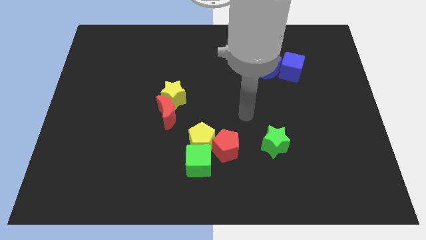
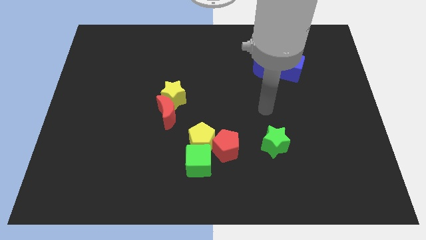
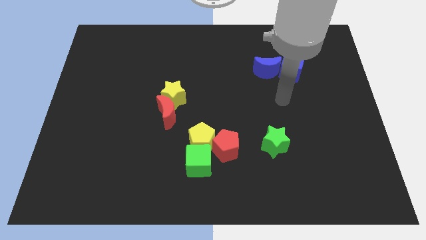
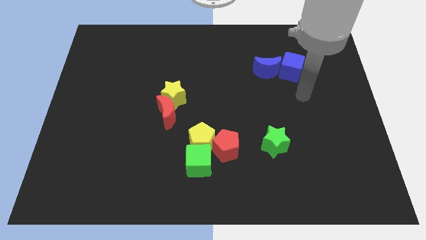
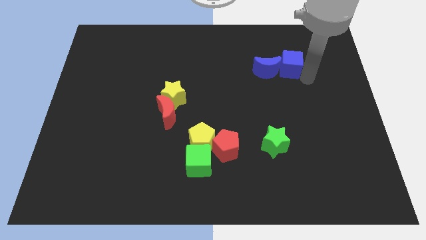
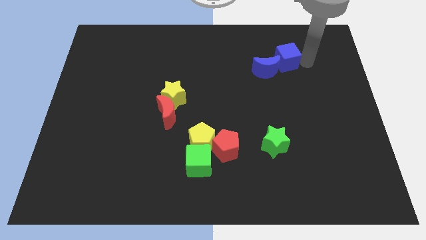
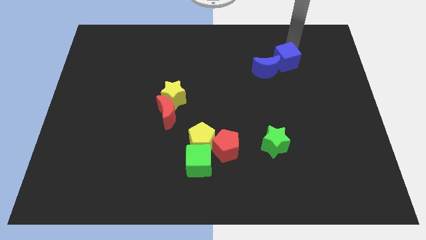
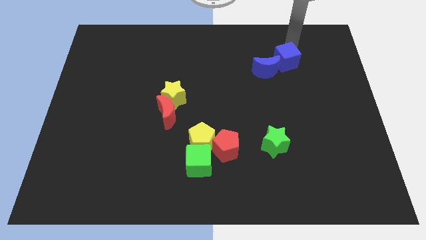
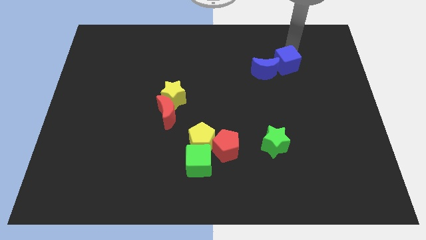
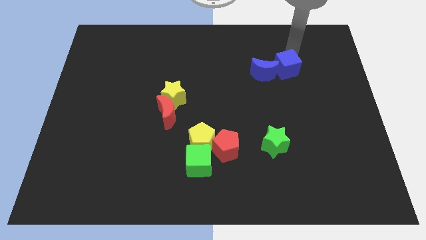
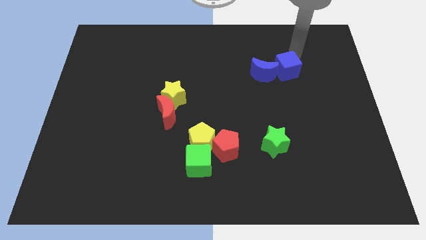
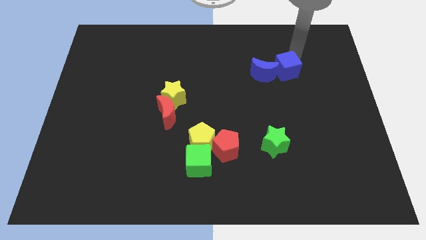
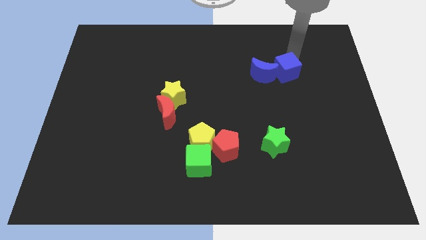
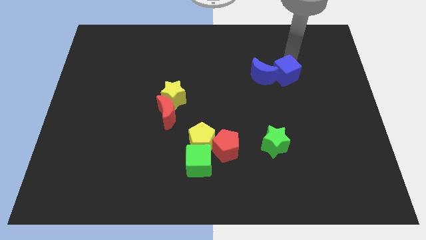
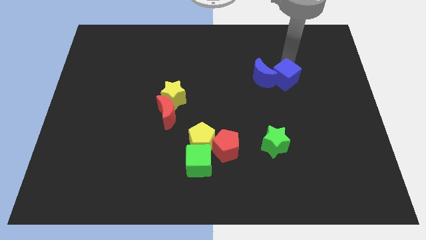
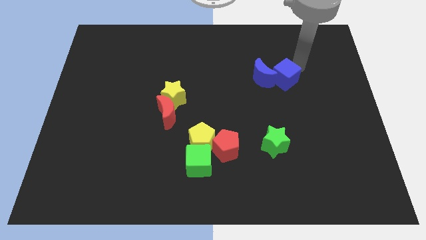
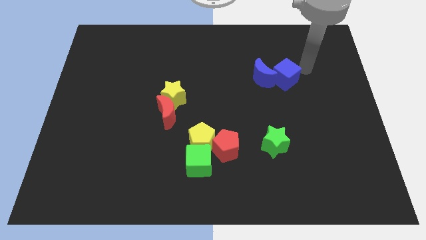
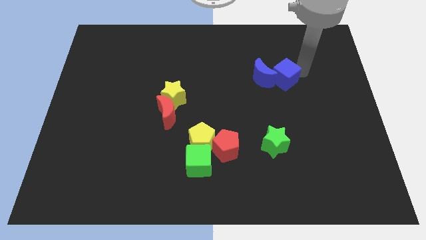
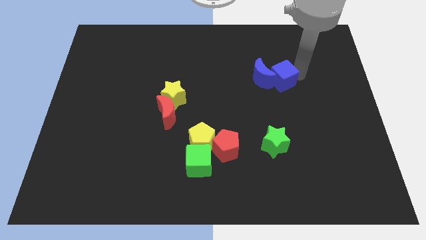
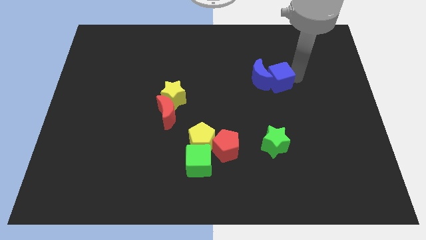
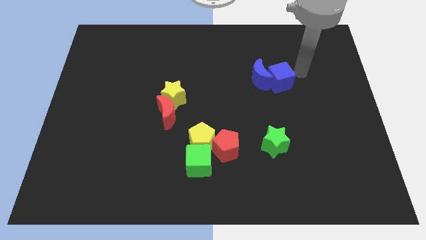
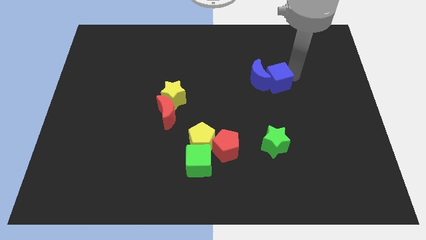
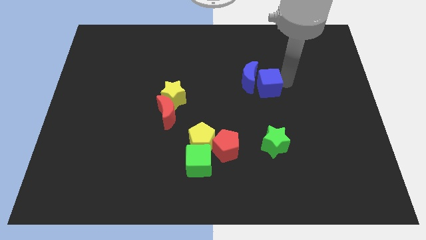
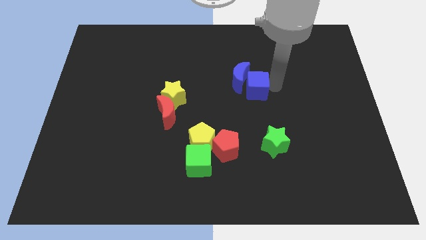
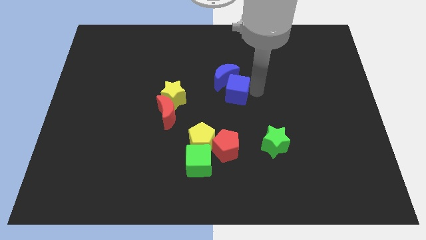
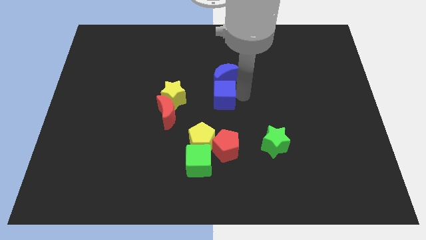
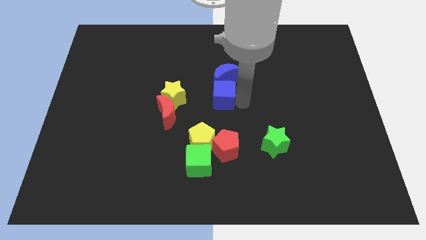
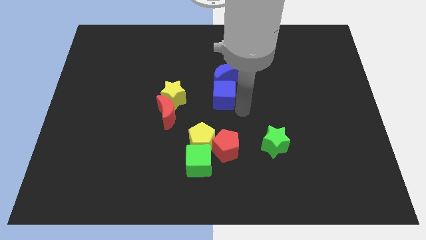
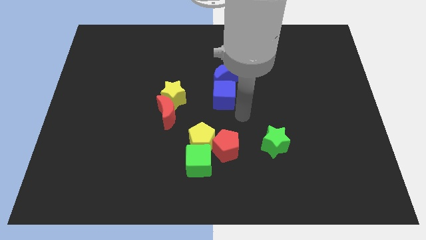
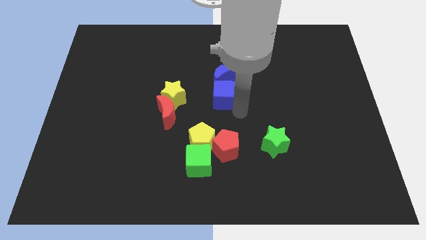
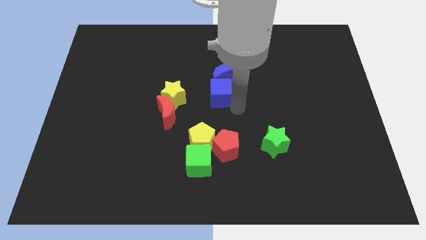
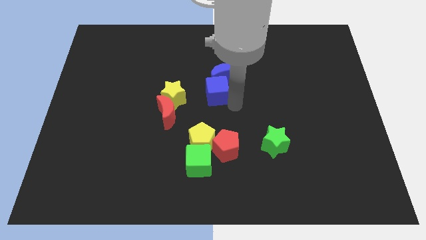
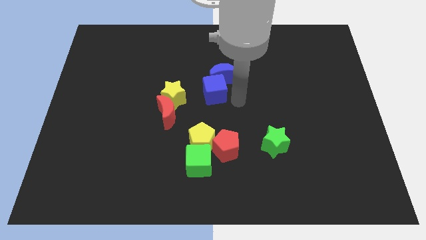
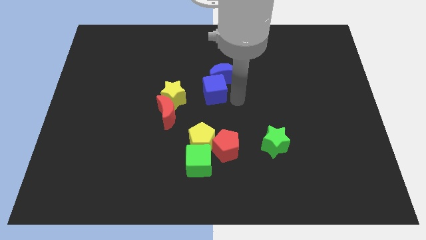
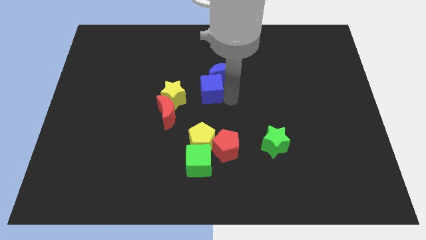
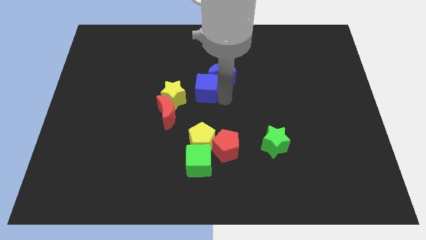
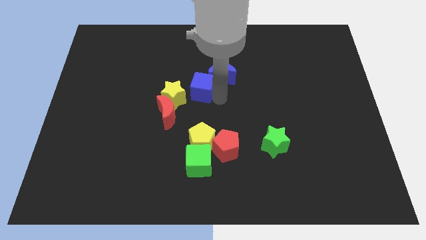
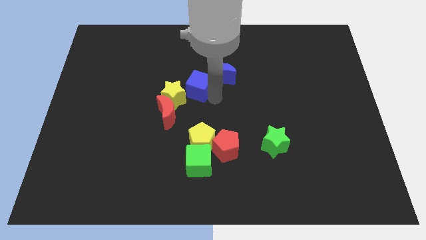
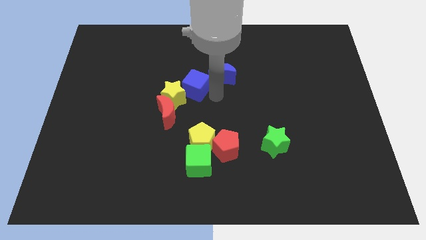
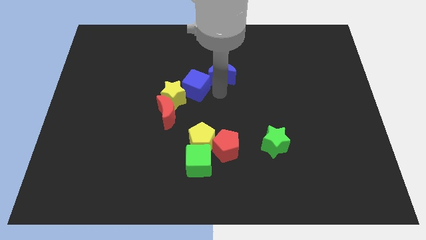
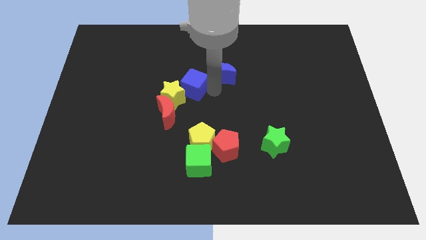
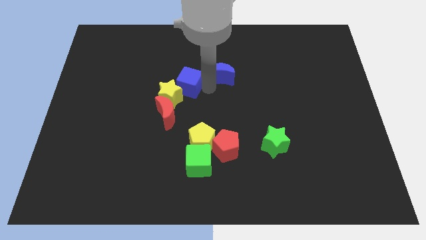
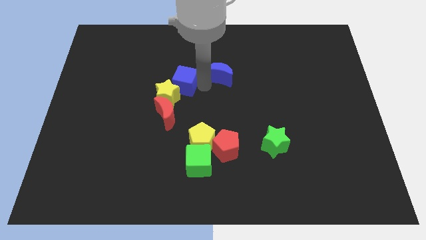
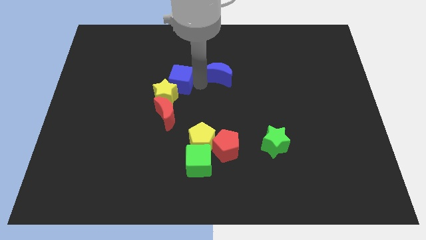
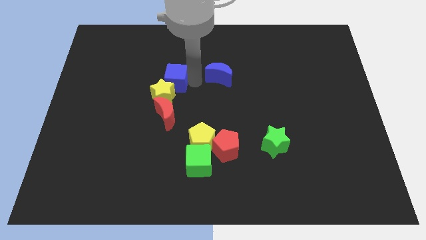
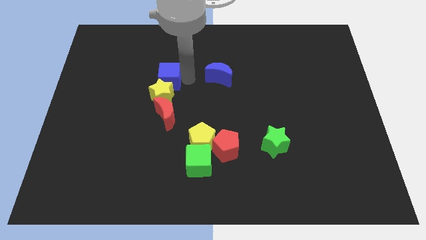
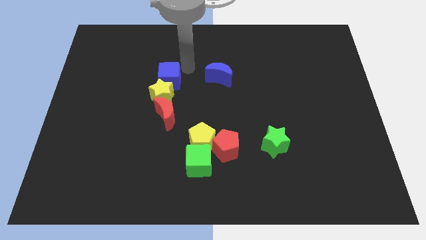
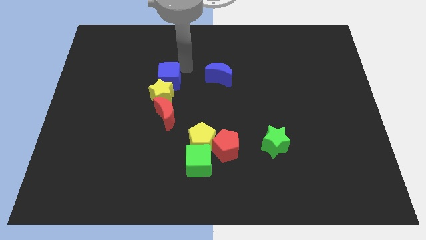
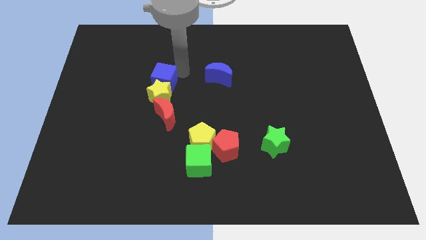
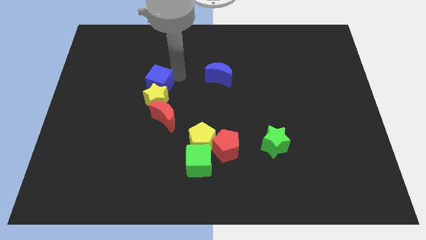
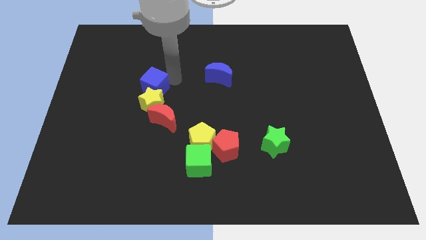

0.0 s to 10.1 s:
slide the blue cube to the top left of the red moon
